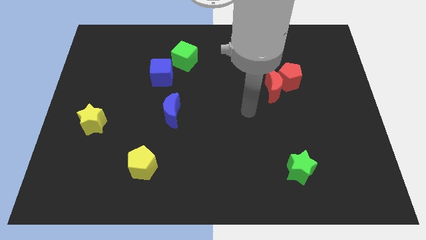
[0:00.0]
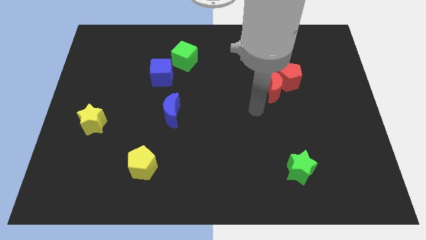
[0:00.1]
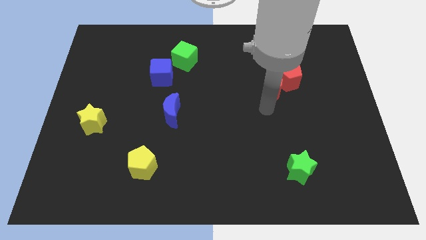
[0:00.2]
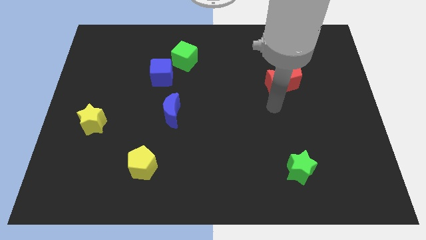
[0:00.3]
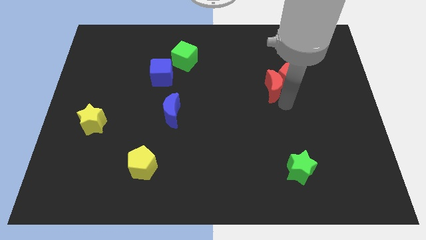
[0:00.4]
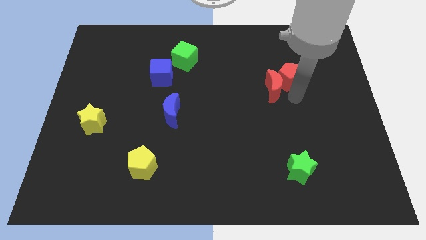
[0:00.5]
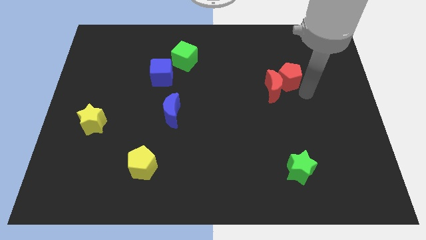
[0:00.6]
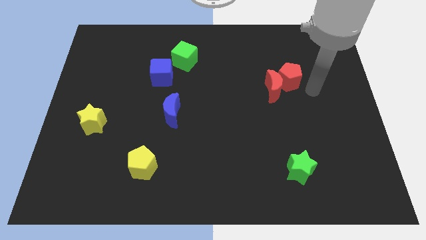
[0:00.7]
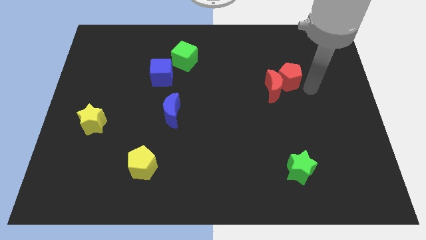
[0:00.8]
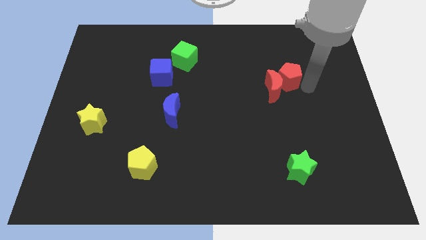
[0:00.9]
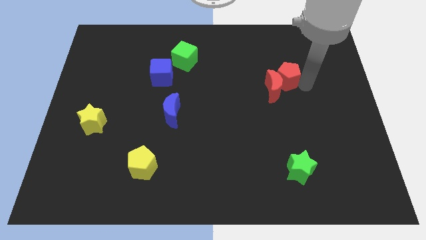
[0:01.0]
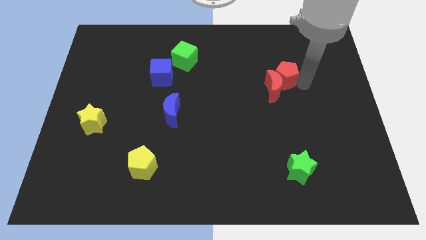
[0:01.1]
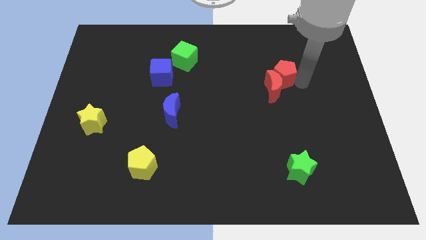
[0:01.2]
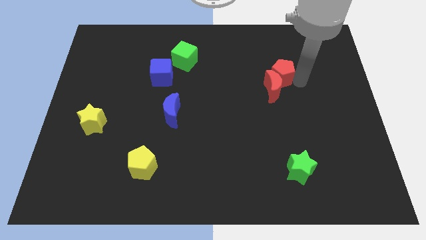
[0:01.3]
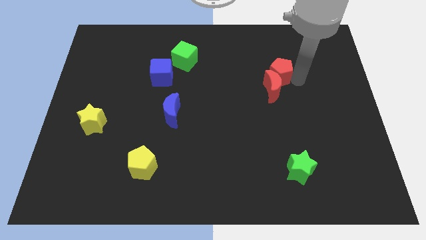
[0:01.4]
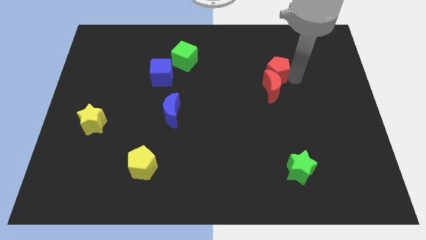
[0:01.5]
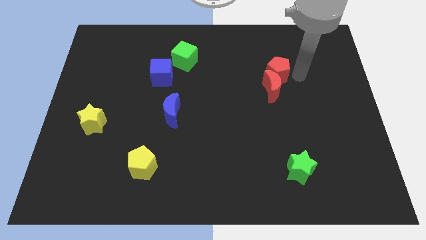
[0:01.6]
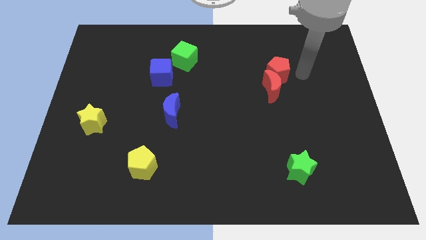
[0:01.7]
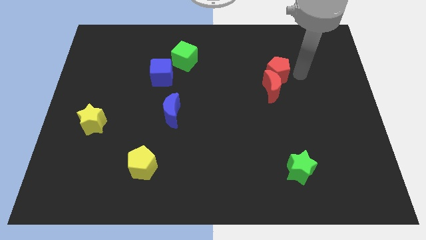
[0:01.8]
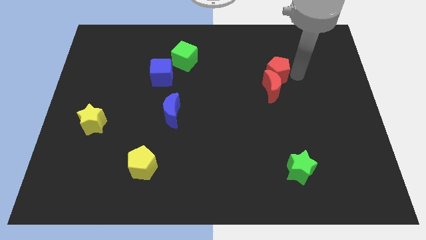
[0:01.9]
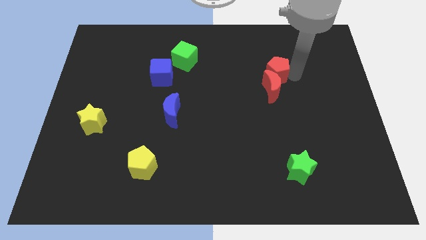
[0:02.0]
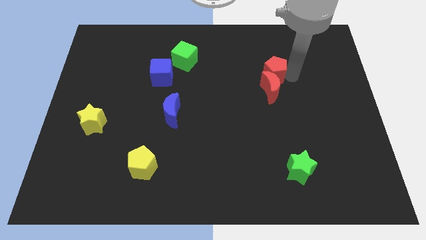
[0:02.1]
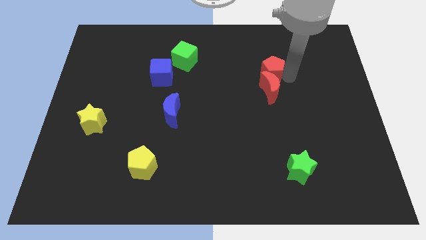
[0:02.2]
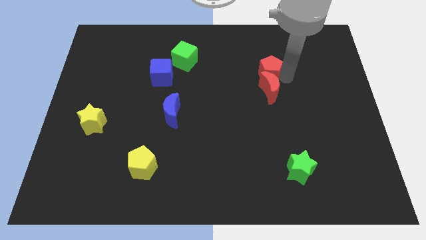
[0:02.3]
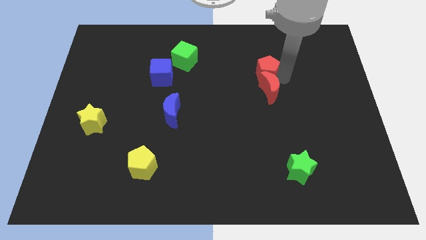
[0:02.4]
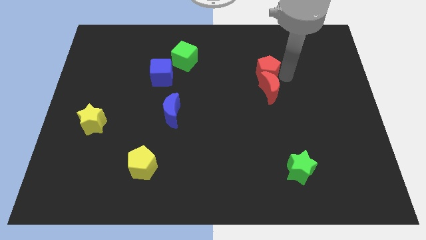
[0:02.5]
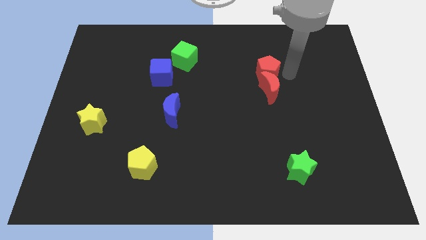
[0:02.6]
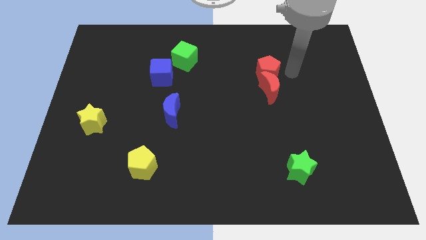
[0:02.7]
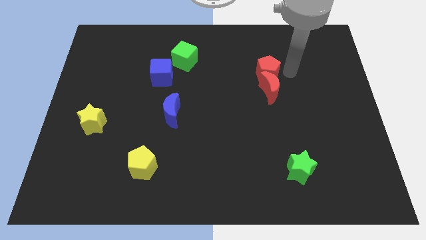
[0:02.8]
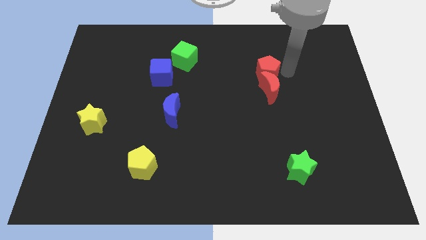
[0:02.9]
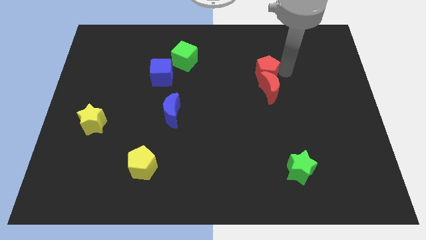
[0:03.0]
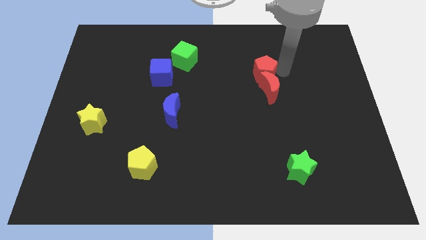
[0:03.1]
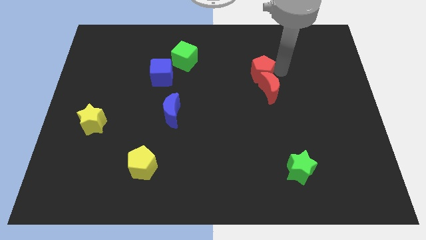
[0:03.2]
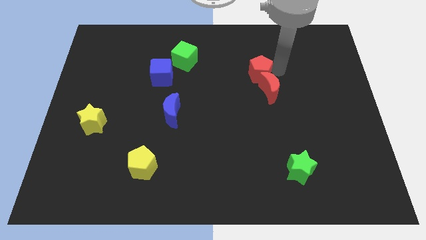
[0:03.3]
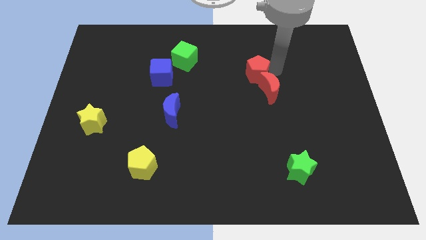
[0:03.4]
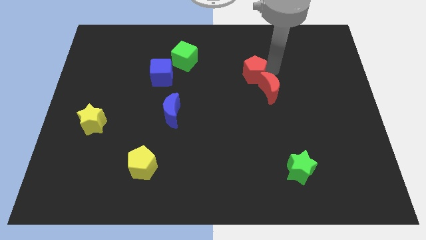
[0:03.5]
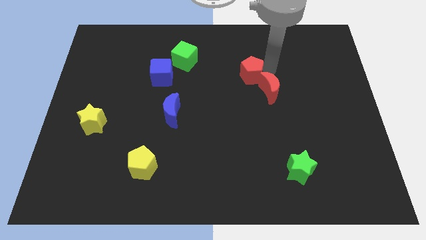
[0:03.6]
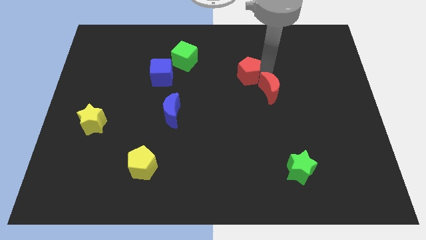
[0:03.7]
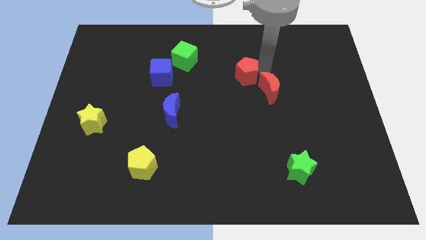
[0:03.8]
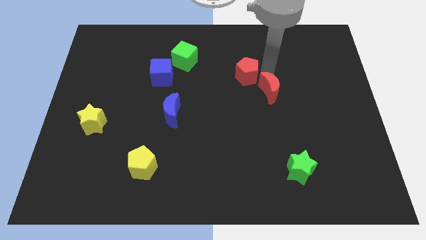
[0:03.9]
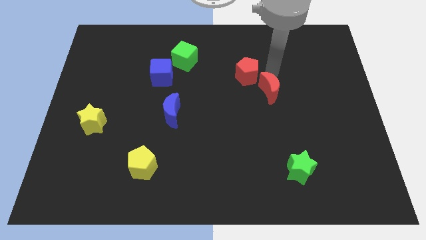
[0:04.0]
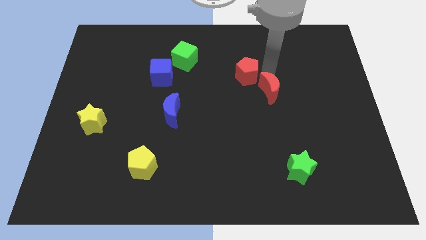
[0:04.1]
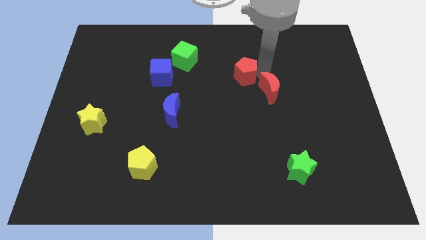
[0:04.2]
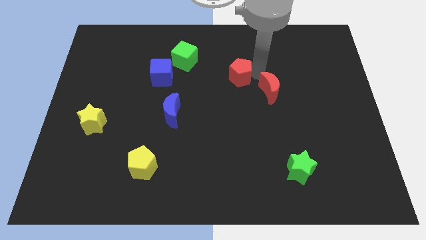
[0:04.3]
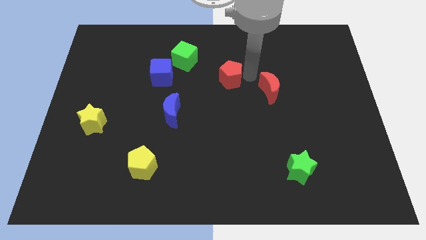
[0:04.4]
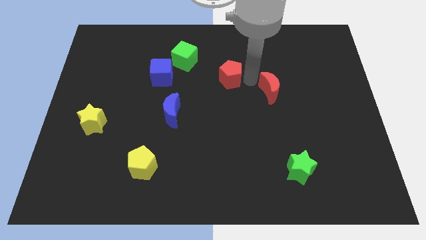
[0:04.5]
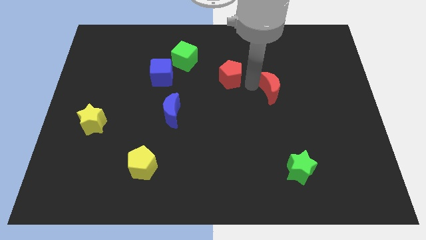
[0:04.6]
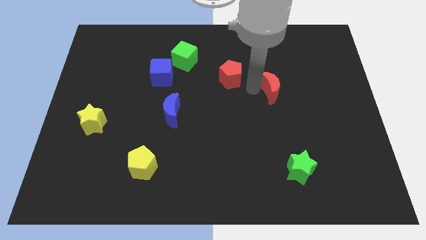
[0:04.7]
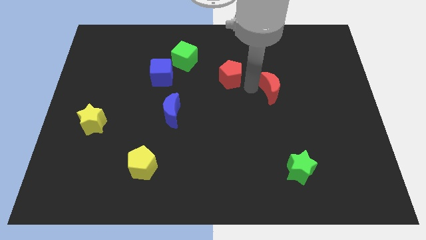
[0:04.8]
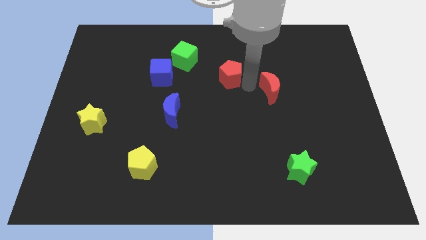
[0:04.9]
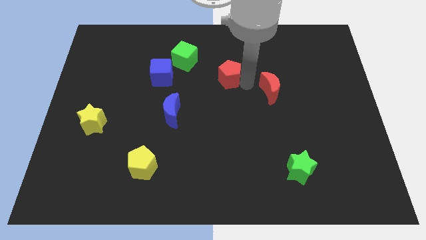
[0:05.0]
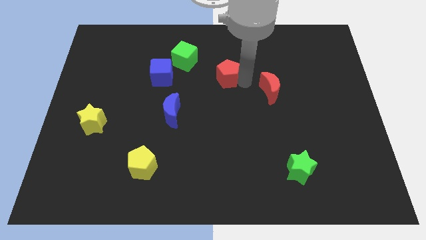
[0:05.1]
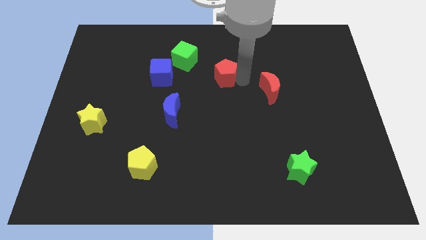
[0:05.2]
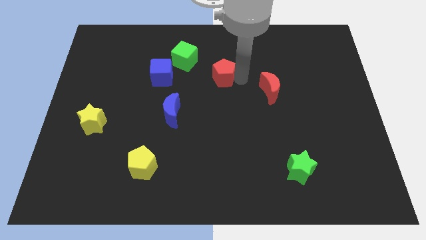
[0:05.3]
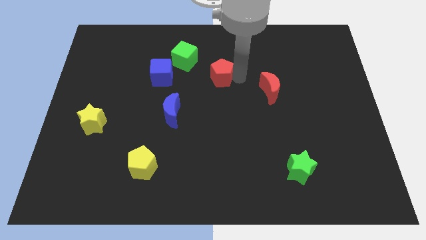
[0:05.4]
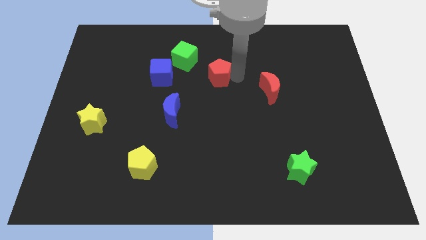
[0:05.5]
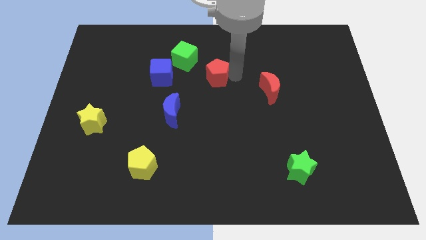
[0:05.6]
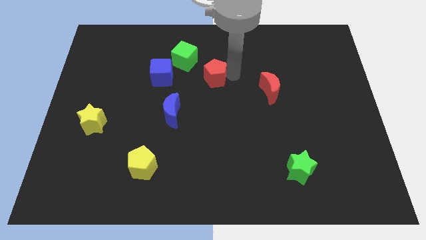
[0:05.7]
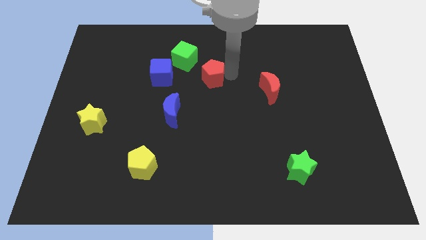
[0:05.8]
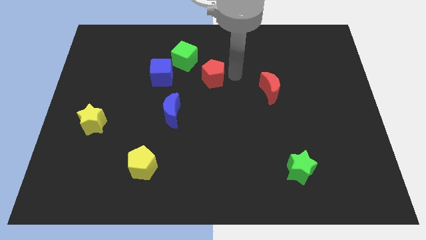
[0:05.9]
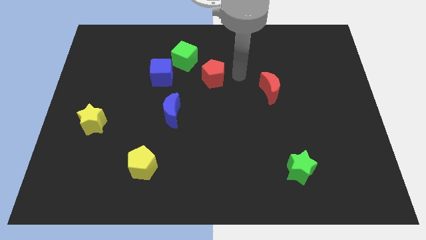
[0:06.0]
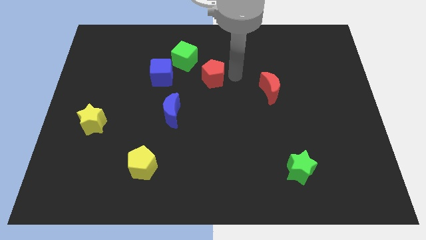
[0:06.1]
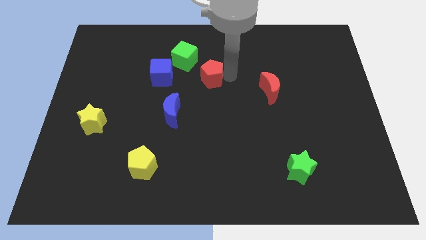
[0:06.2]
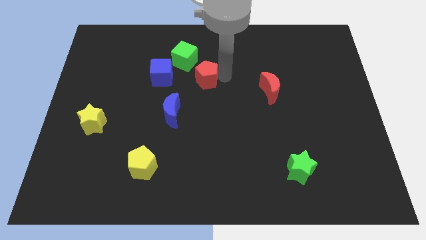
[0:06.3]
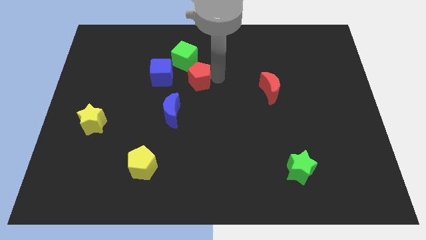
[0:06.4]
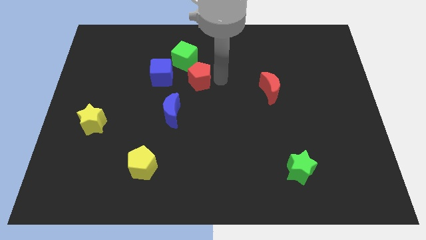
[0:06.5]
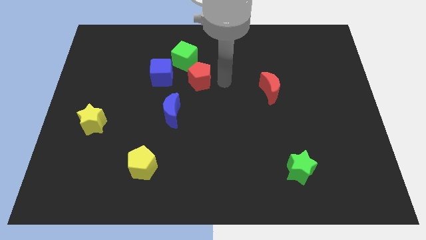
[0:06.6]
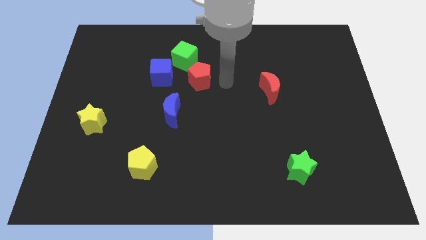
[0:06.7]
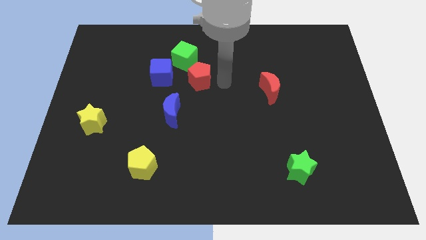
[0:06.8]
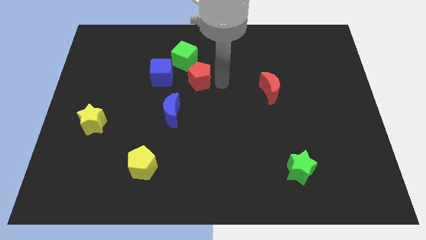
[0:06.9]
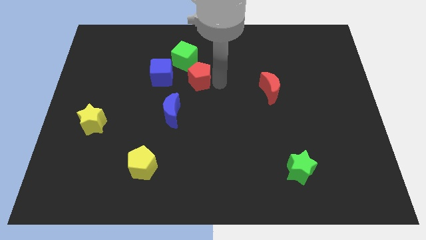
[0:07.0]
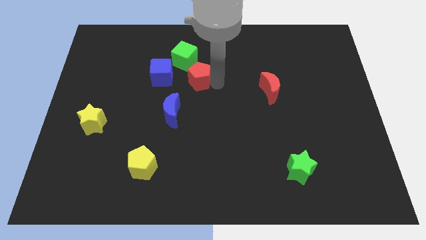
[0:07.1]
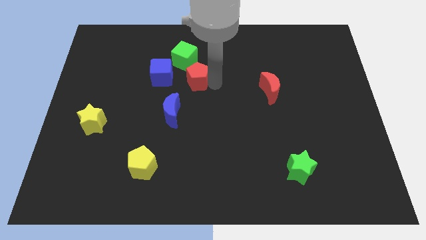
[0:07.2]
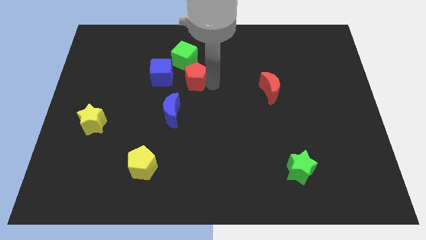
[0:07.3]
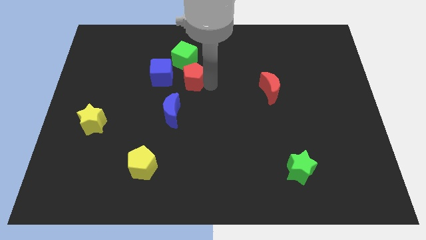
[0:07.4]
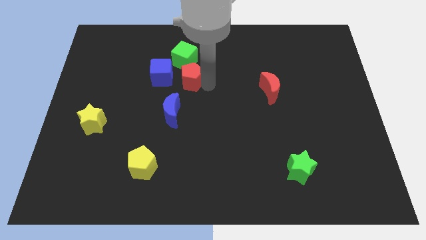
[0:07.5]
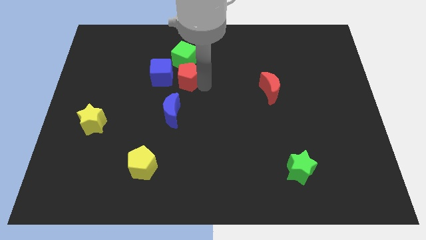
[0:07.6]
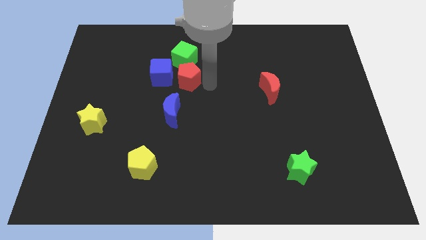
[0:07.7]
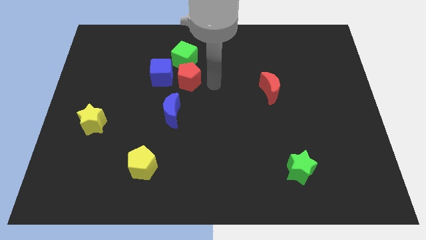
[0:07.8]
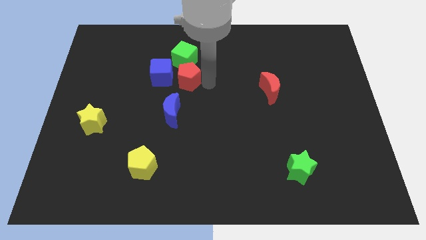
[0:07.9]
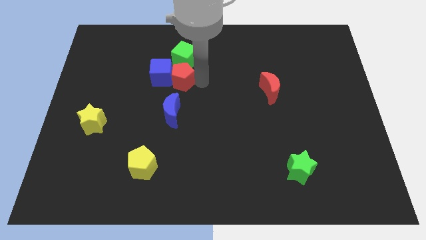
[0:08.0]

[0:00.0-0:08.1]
move the red pentagon to the blue cube
